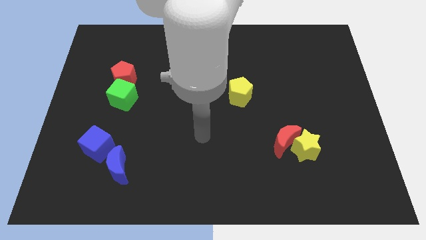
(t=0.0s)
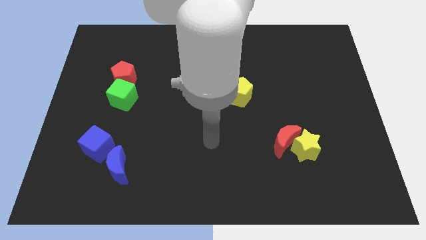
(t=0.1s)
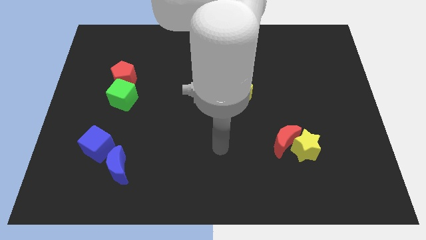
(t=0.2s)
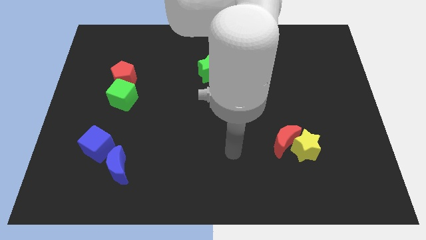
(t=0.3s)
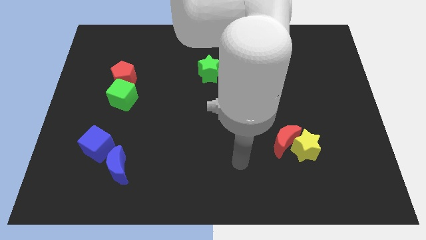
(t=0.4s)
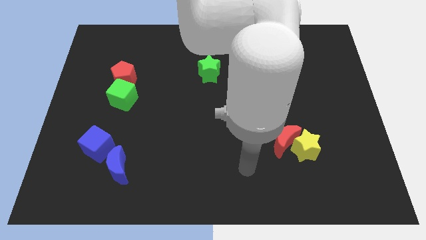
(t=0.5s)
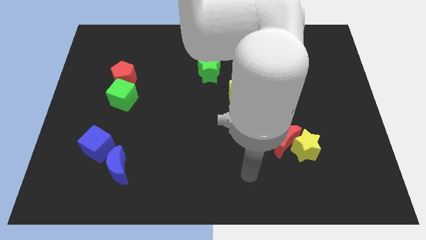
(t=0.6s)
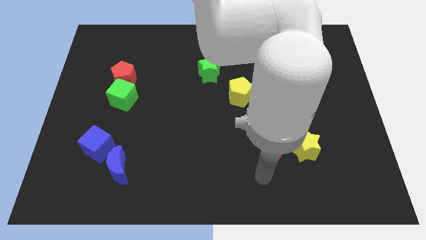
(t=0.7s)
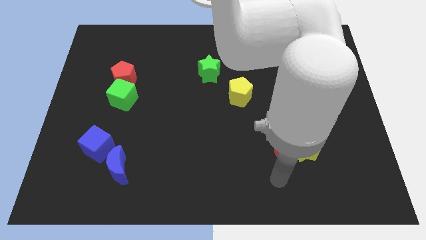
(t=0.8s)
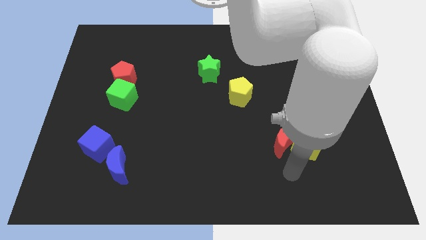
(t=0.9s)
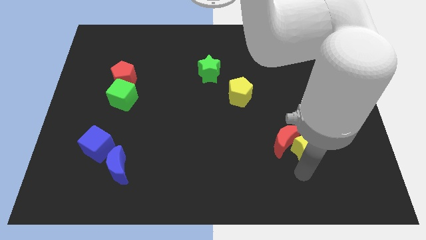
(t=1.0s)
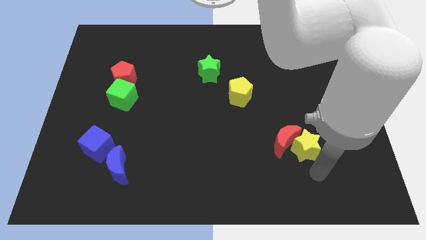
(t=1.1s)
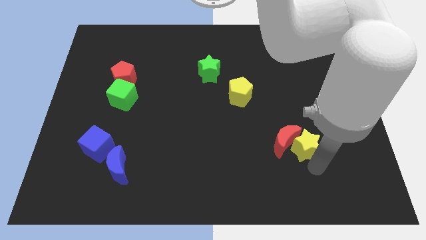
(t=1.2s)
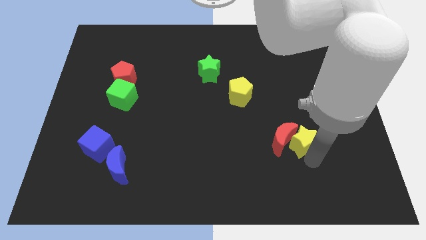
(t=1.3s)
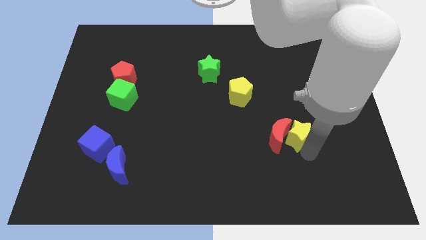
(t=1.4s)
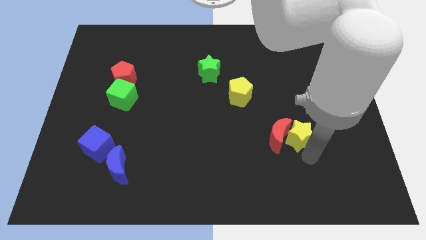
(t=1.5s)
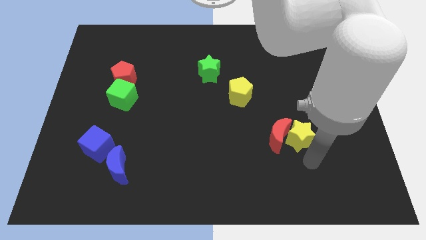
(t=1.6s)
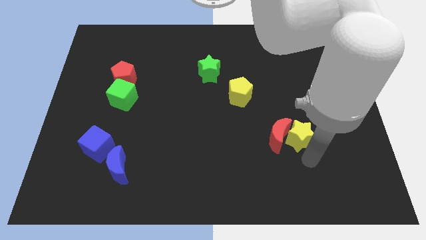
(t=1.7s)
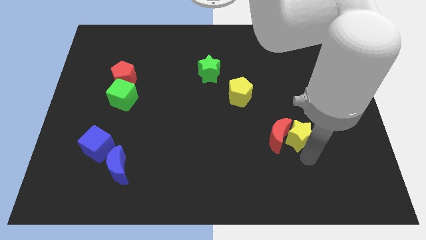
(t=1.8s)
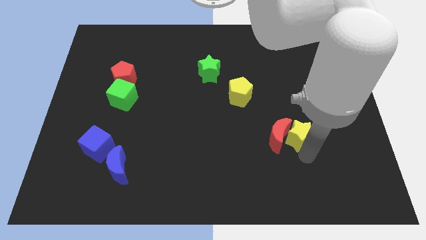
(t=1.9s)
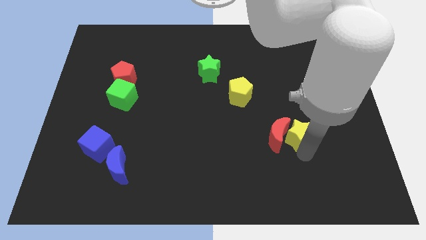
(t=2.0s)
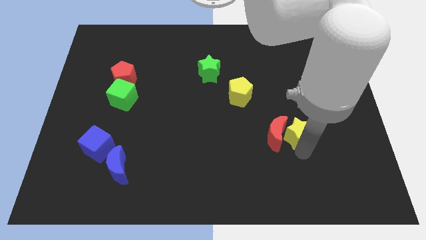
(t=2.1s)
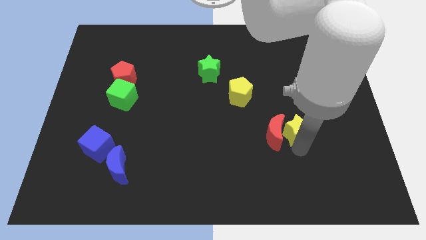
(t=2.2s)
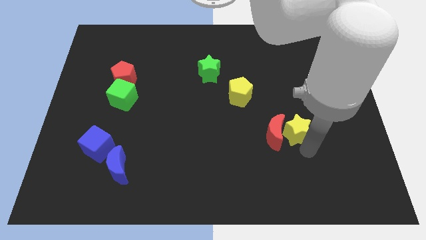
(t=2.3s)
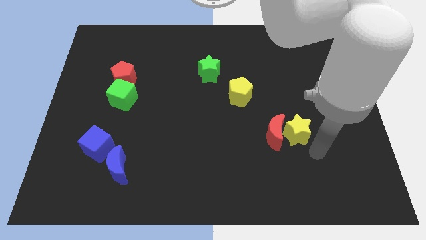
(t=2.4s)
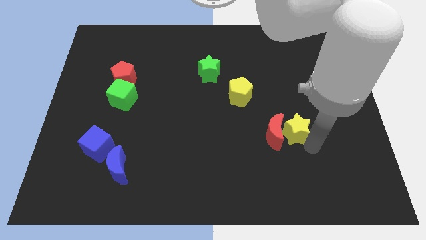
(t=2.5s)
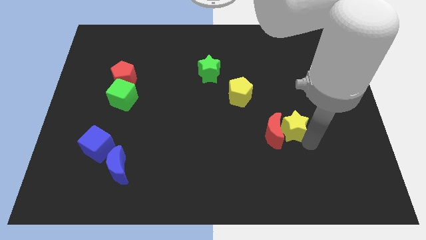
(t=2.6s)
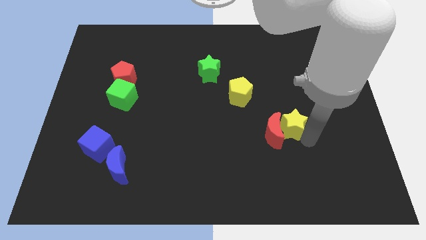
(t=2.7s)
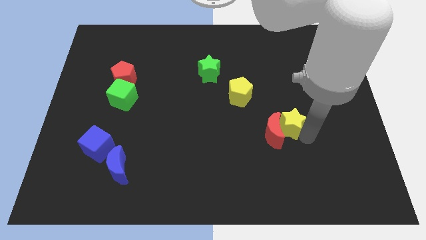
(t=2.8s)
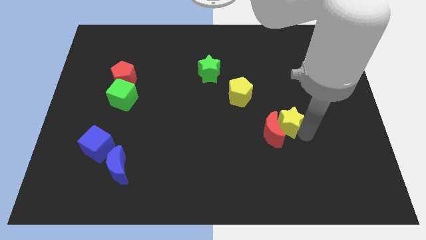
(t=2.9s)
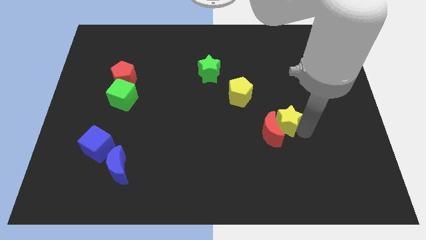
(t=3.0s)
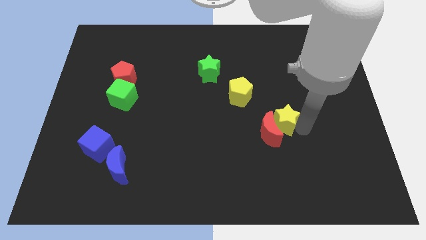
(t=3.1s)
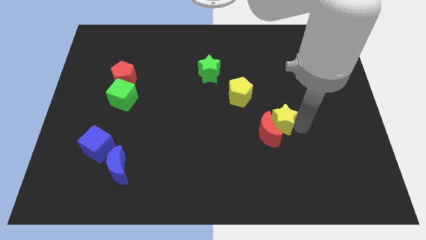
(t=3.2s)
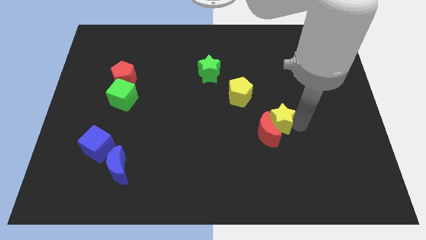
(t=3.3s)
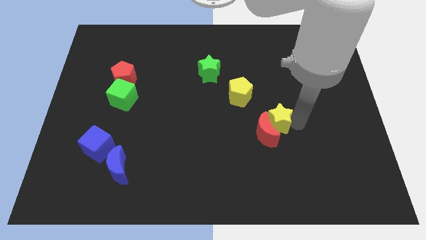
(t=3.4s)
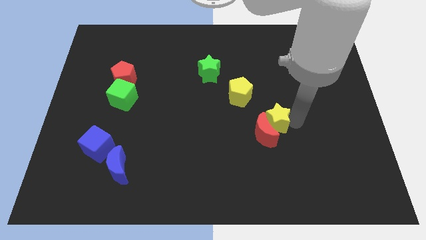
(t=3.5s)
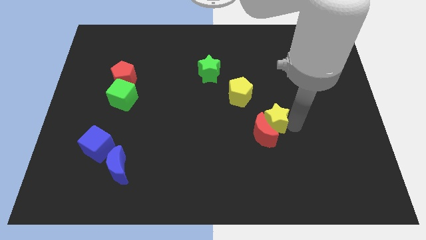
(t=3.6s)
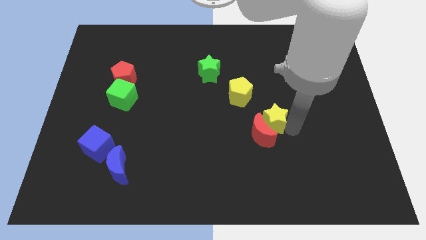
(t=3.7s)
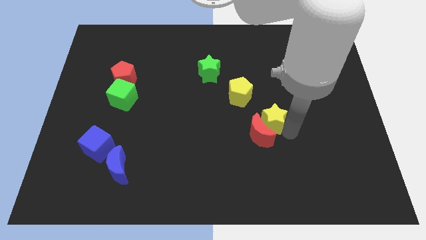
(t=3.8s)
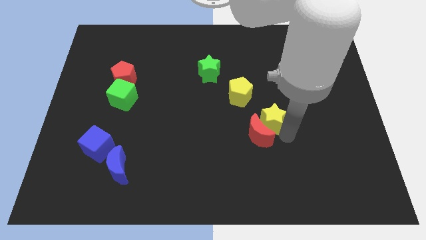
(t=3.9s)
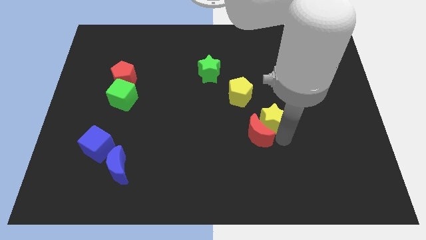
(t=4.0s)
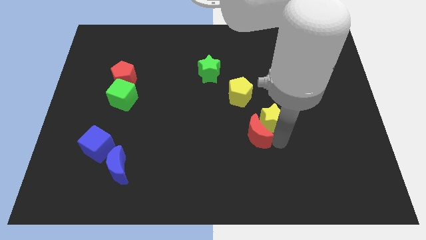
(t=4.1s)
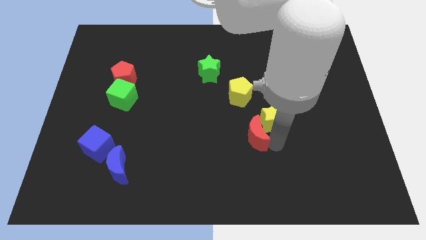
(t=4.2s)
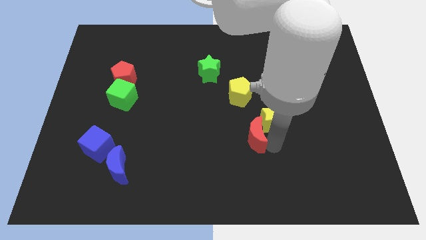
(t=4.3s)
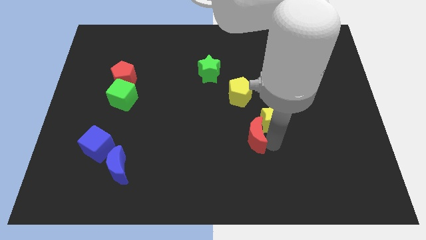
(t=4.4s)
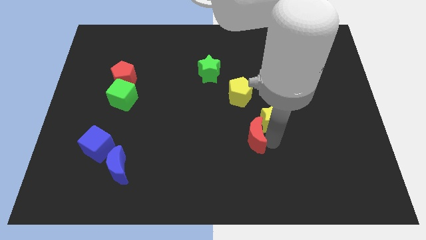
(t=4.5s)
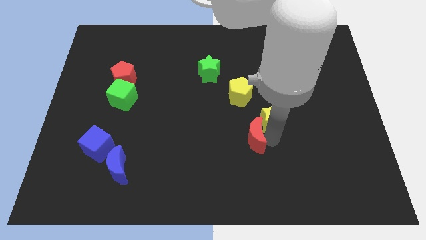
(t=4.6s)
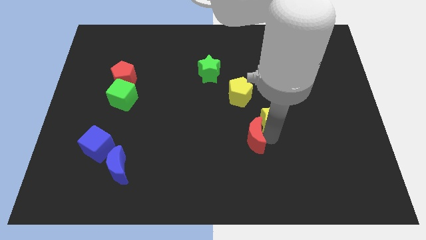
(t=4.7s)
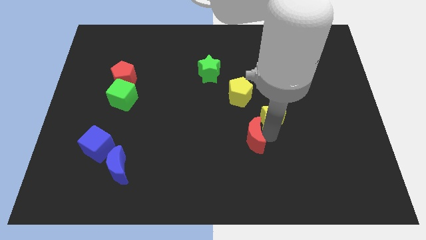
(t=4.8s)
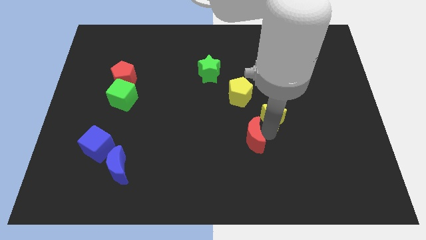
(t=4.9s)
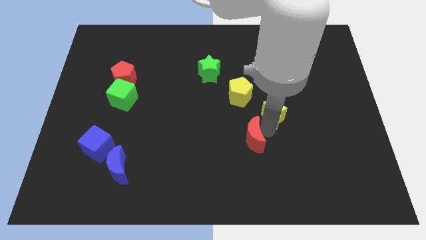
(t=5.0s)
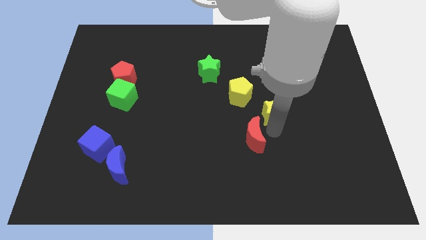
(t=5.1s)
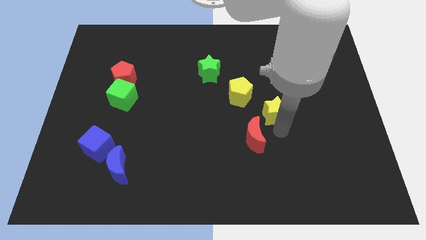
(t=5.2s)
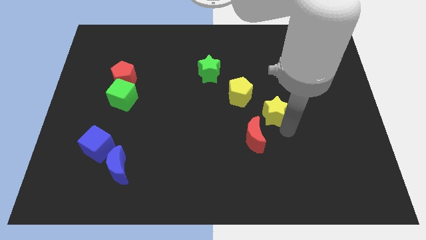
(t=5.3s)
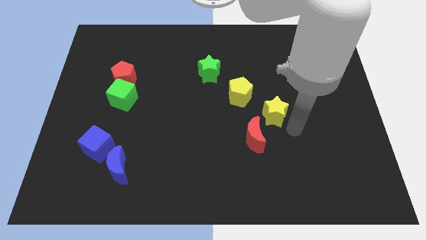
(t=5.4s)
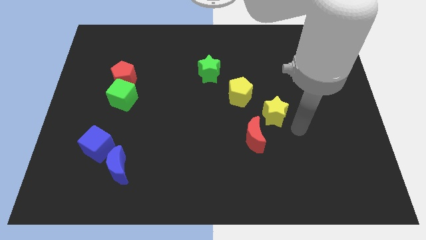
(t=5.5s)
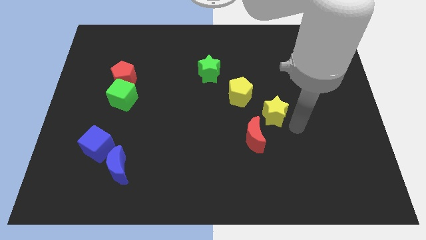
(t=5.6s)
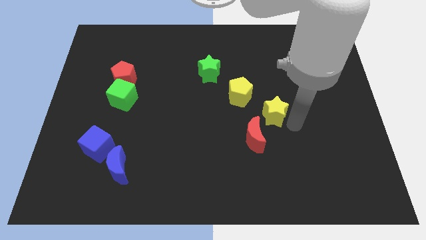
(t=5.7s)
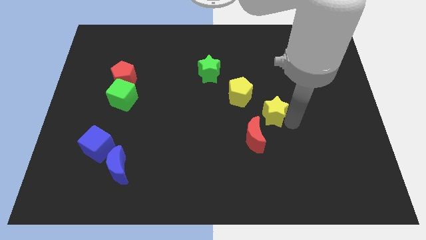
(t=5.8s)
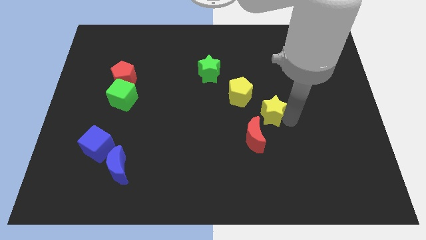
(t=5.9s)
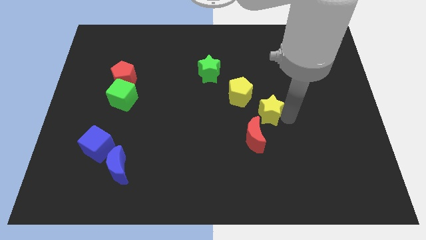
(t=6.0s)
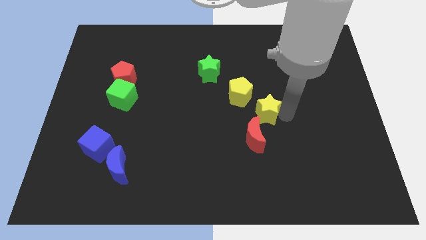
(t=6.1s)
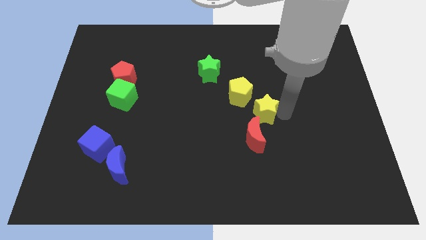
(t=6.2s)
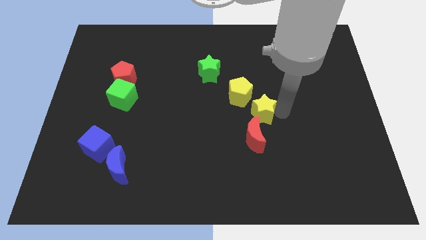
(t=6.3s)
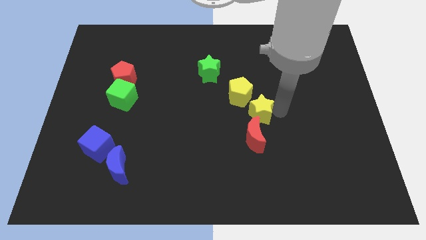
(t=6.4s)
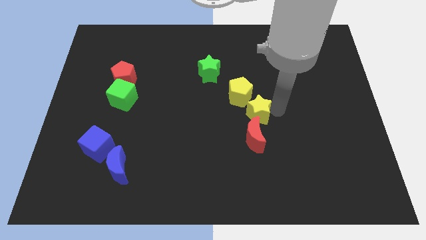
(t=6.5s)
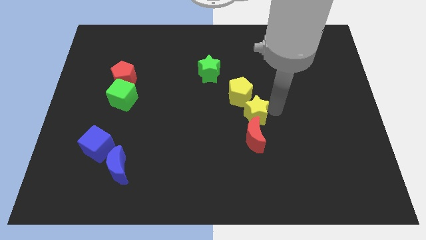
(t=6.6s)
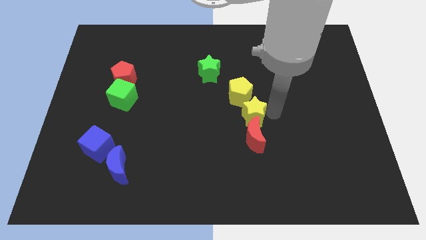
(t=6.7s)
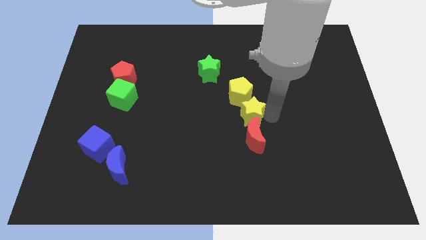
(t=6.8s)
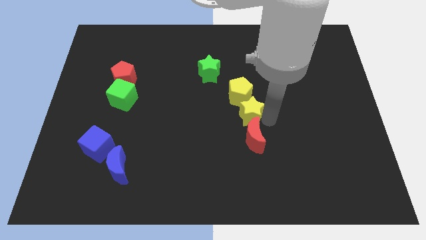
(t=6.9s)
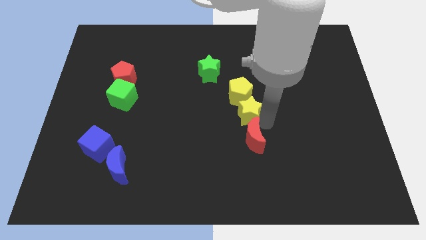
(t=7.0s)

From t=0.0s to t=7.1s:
put the yellow star next to the yellow pentagon
